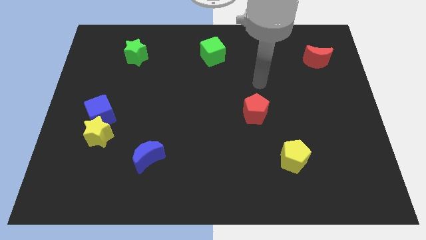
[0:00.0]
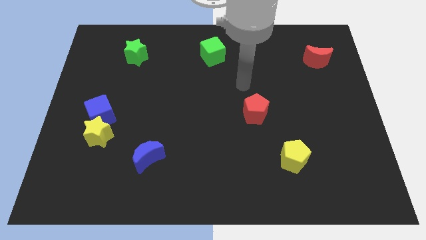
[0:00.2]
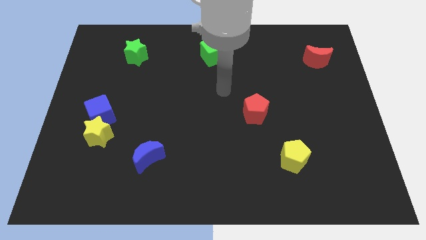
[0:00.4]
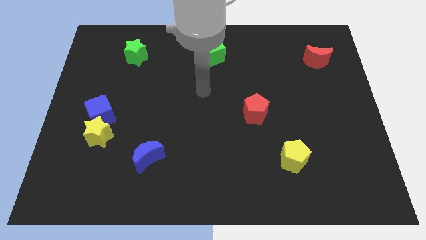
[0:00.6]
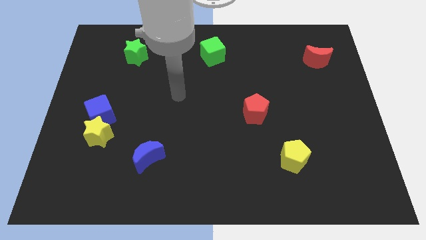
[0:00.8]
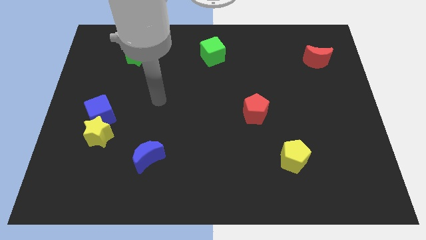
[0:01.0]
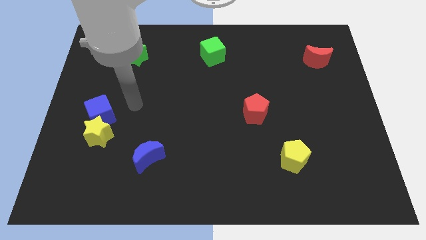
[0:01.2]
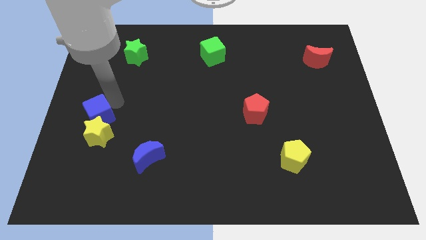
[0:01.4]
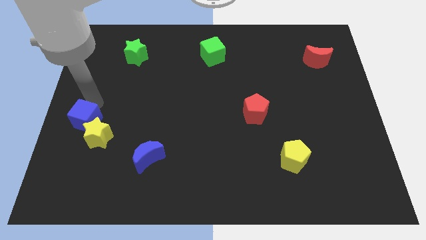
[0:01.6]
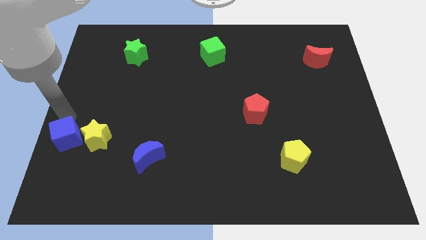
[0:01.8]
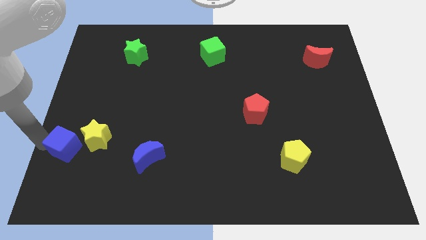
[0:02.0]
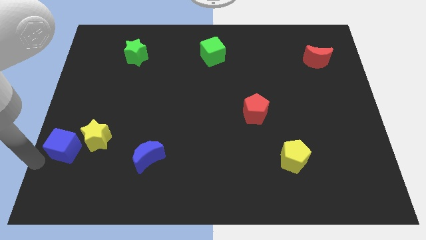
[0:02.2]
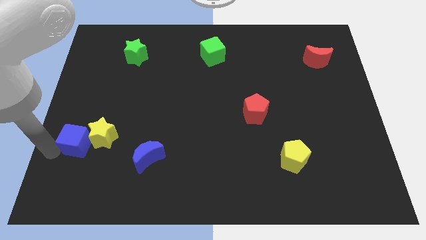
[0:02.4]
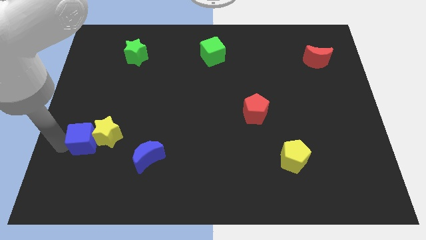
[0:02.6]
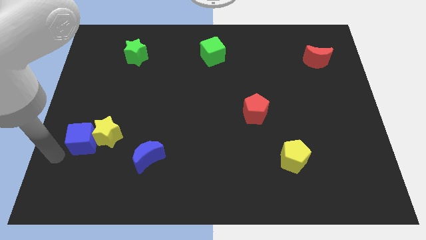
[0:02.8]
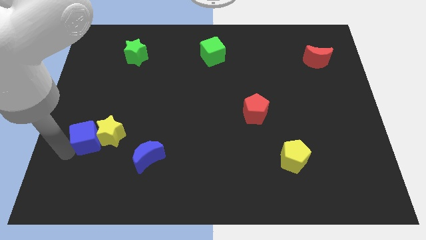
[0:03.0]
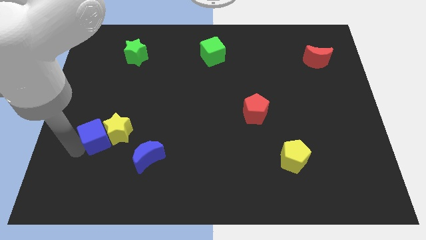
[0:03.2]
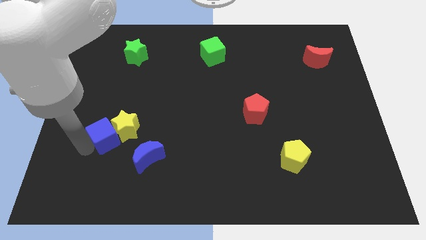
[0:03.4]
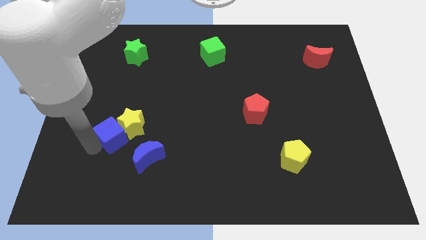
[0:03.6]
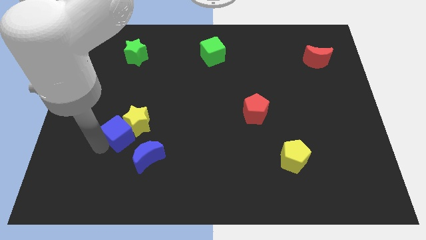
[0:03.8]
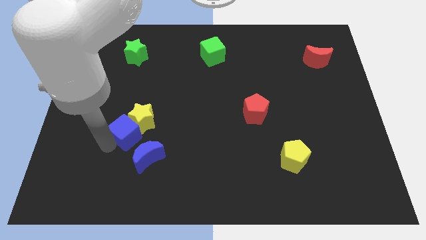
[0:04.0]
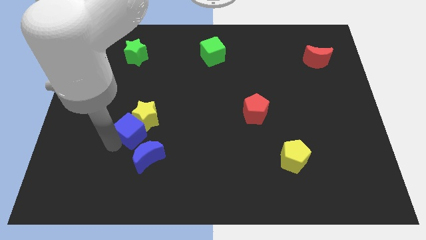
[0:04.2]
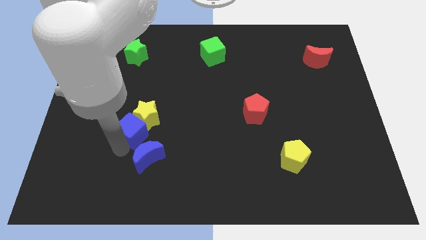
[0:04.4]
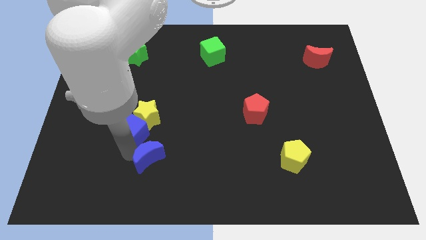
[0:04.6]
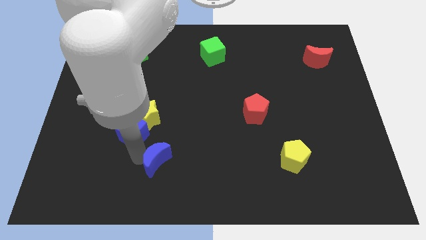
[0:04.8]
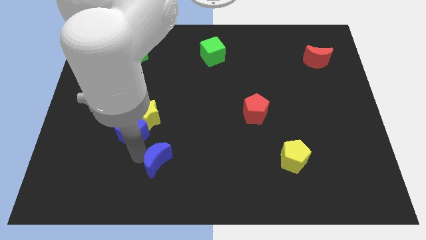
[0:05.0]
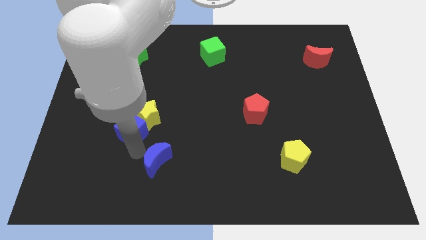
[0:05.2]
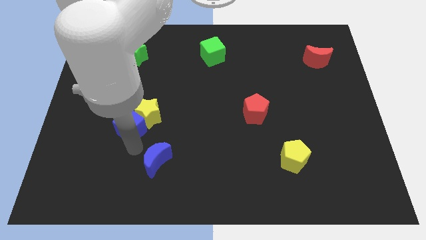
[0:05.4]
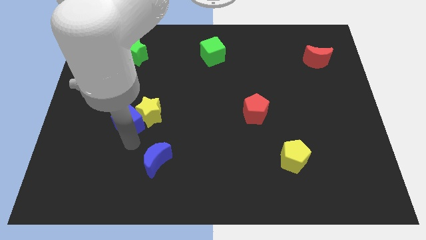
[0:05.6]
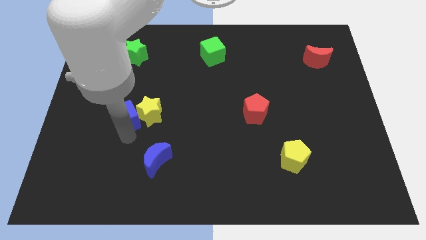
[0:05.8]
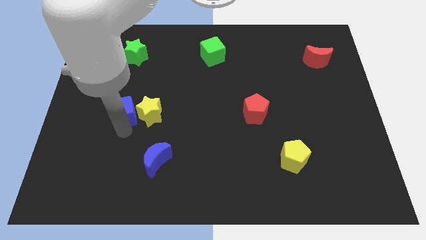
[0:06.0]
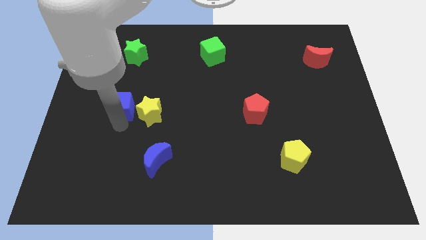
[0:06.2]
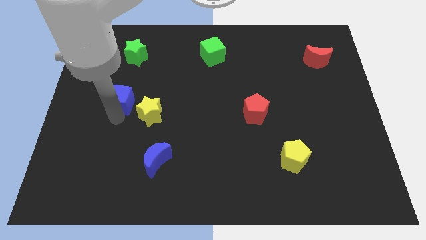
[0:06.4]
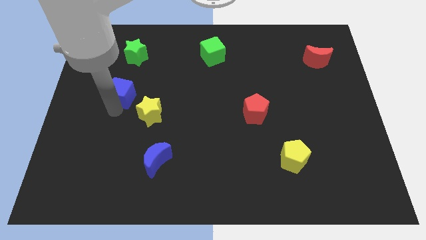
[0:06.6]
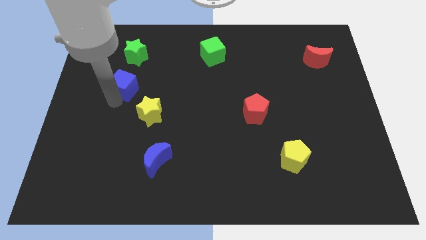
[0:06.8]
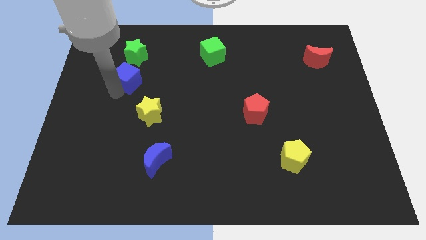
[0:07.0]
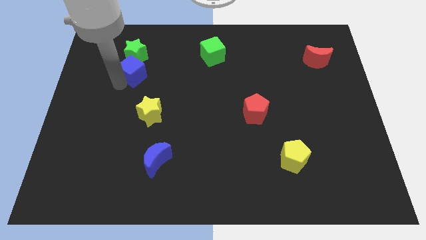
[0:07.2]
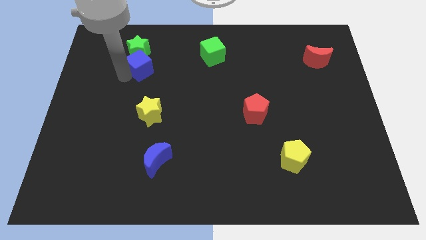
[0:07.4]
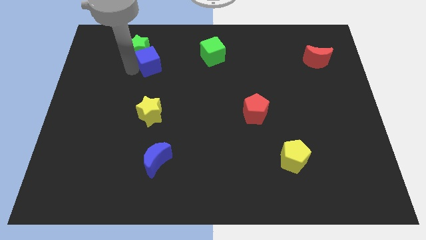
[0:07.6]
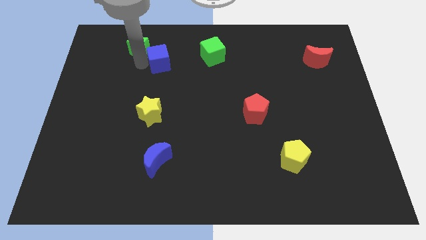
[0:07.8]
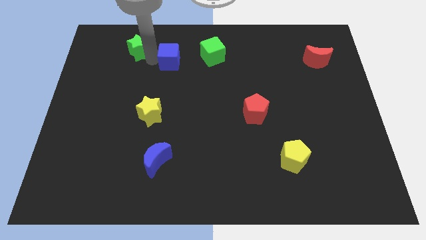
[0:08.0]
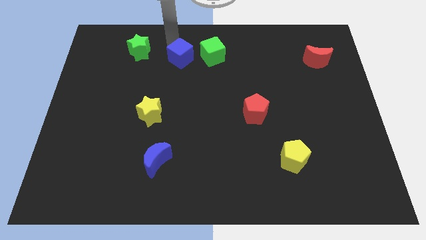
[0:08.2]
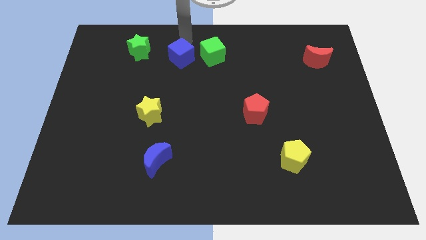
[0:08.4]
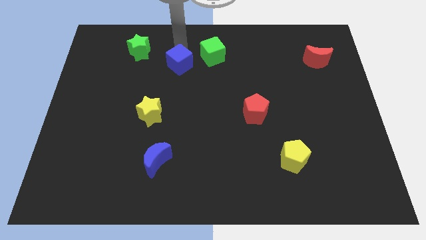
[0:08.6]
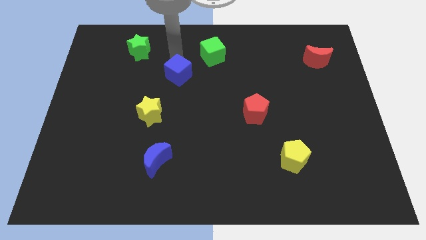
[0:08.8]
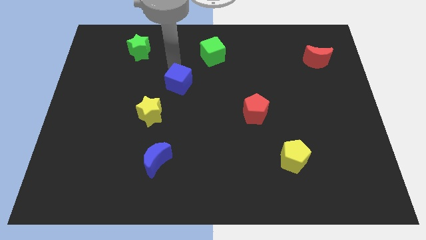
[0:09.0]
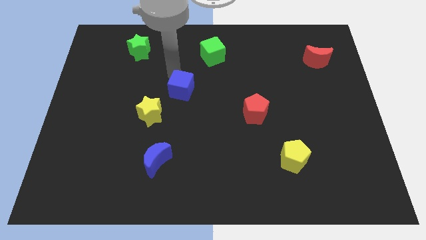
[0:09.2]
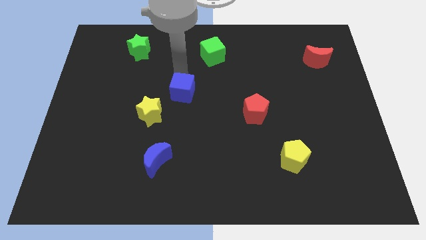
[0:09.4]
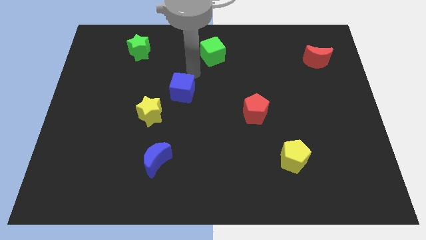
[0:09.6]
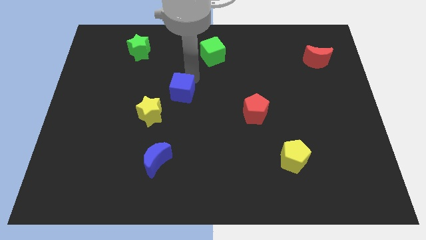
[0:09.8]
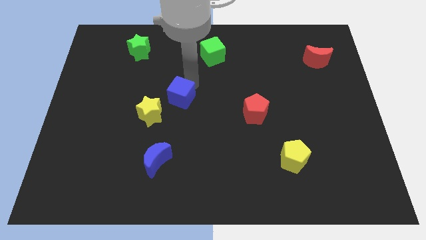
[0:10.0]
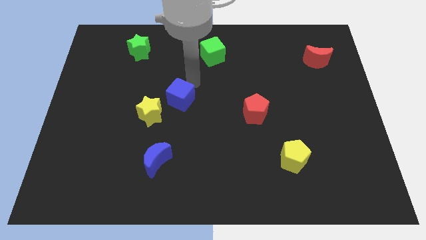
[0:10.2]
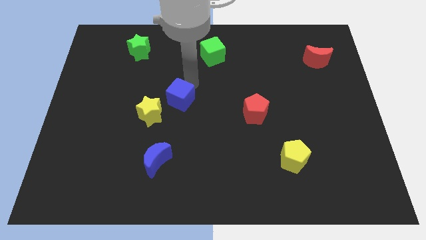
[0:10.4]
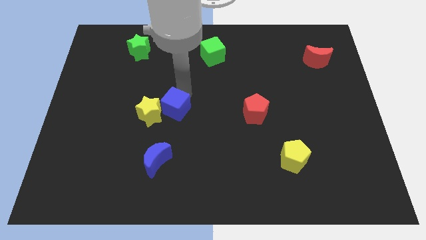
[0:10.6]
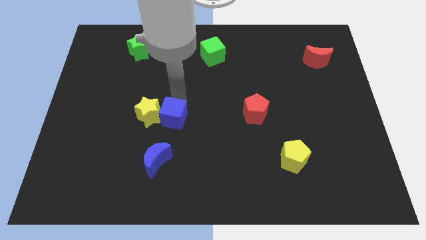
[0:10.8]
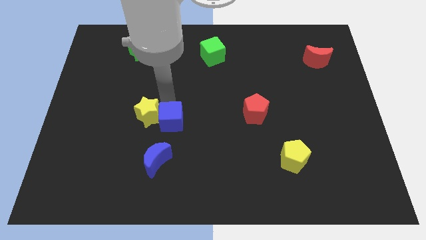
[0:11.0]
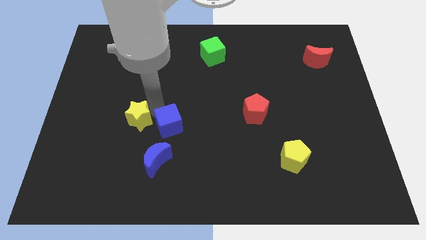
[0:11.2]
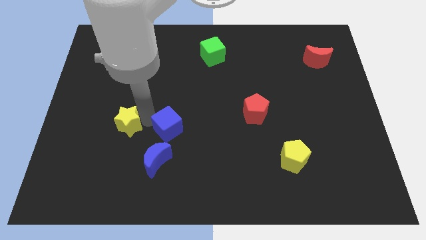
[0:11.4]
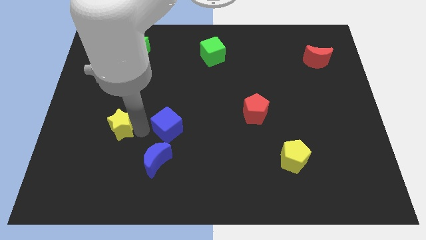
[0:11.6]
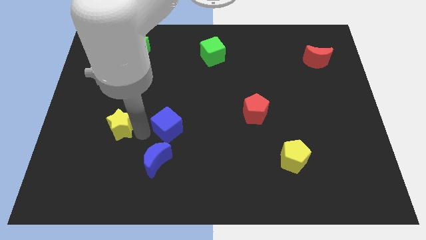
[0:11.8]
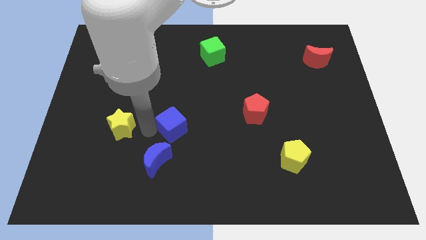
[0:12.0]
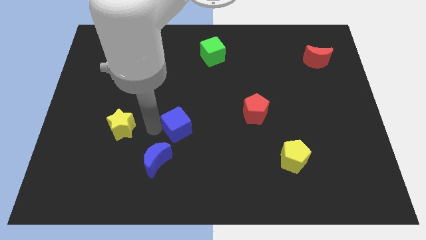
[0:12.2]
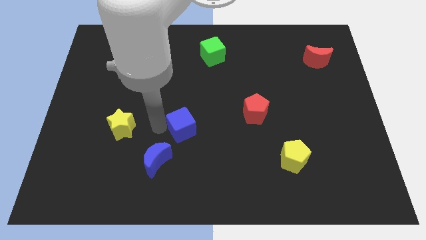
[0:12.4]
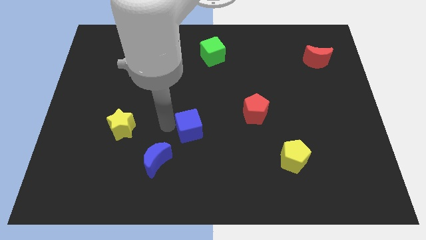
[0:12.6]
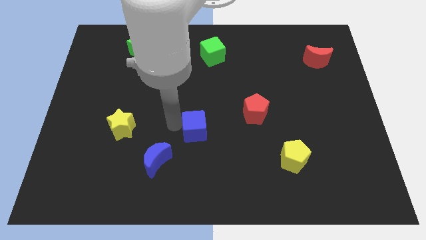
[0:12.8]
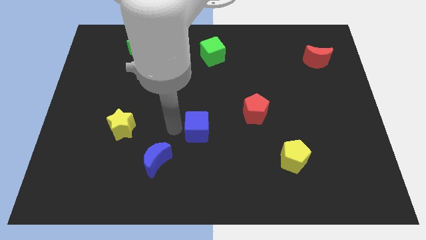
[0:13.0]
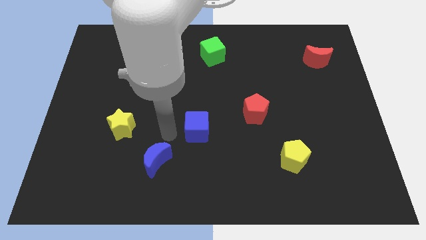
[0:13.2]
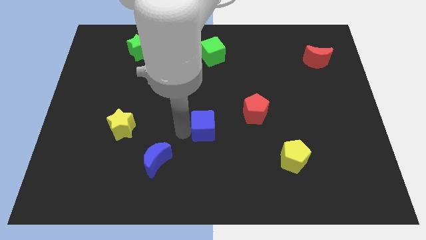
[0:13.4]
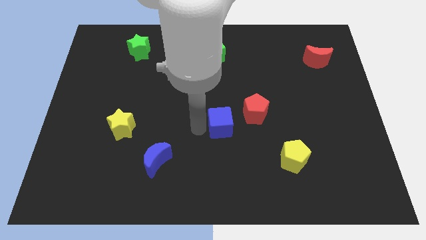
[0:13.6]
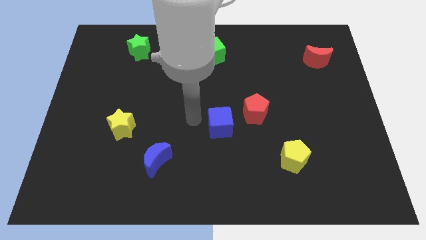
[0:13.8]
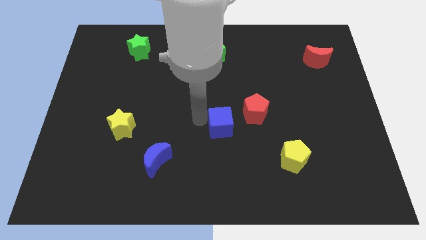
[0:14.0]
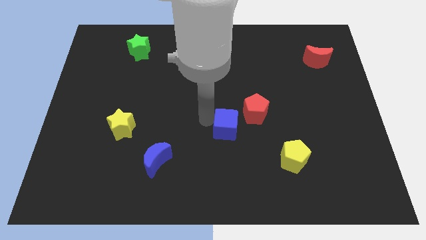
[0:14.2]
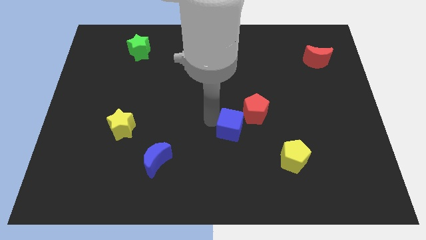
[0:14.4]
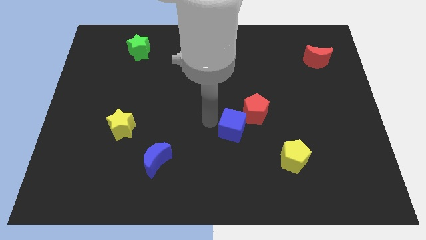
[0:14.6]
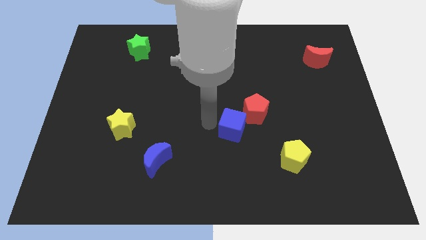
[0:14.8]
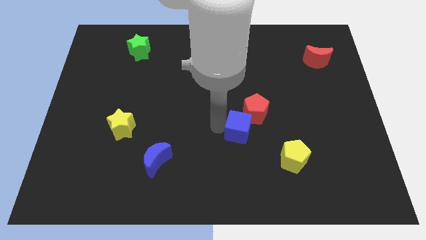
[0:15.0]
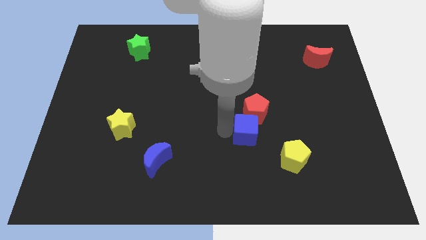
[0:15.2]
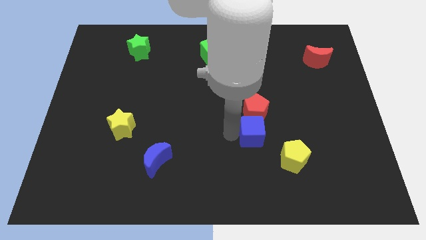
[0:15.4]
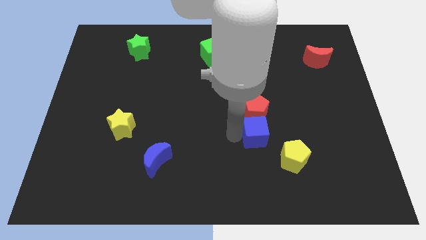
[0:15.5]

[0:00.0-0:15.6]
slide the blue cube to the bottom right of the red pentagon
